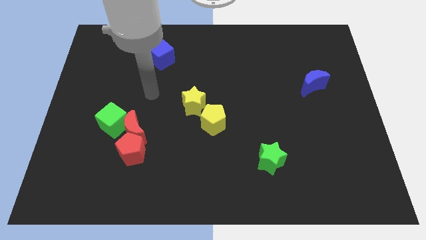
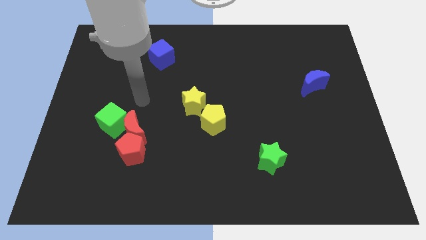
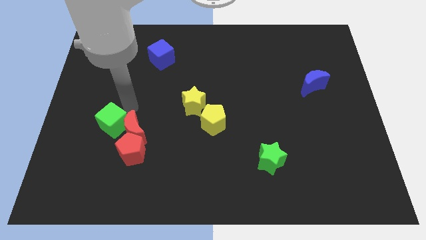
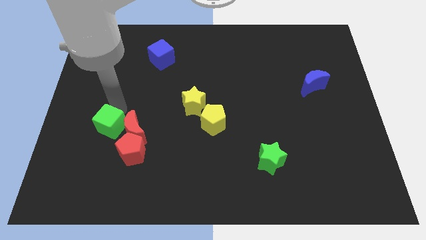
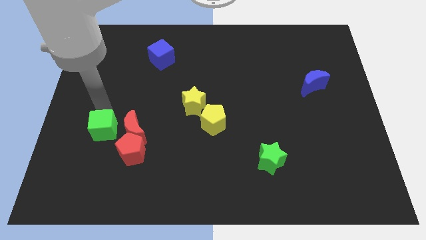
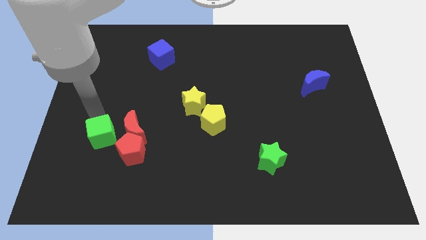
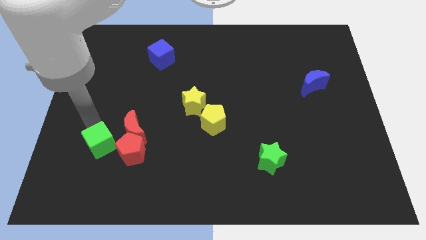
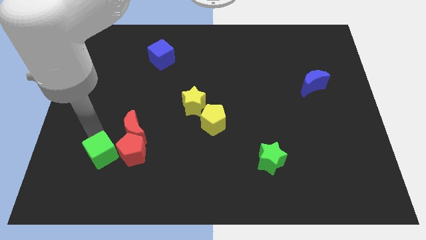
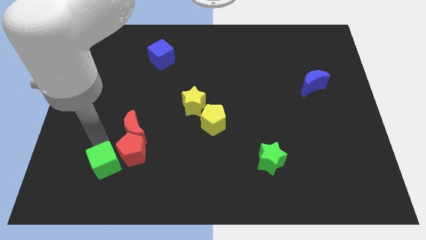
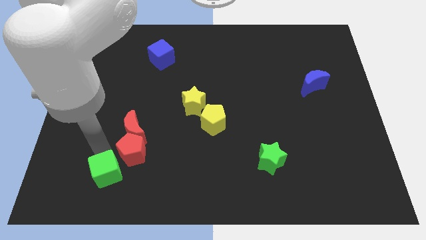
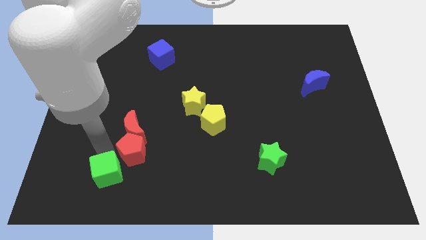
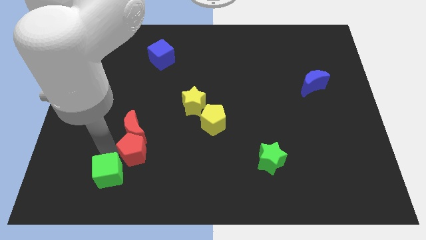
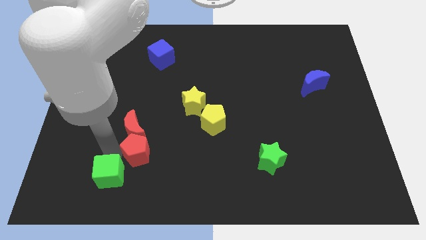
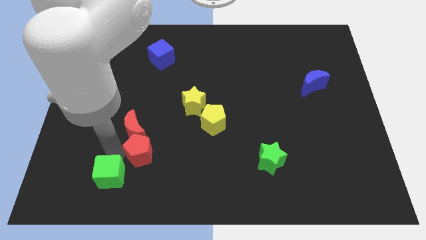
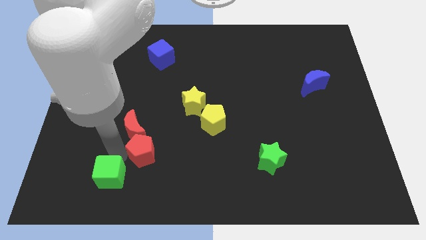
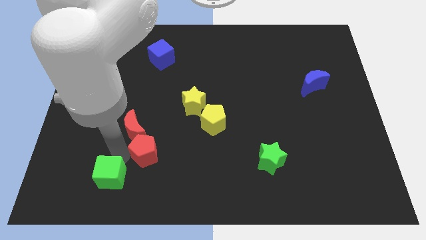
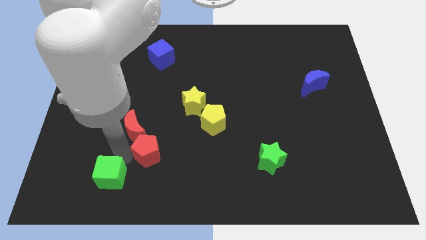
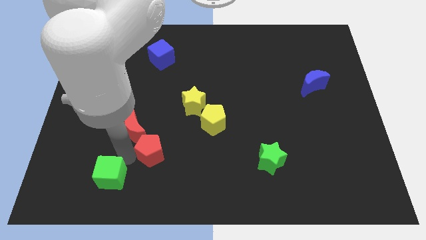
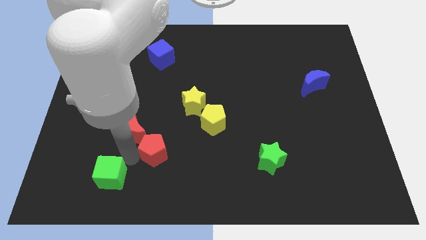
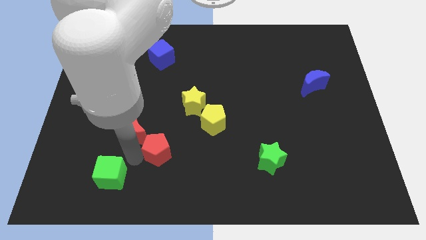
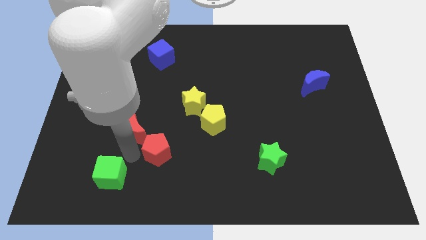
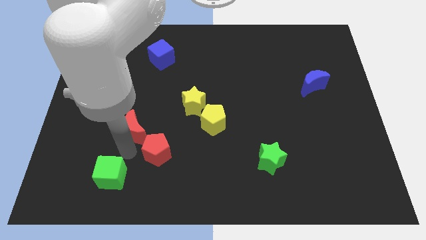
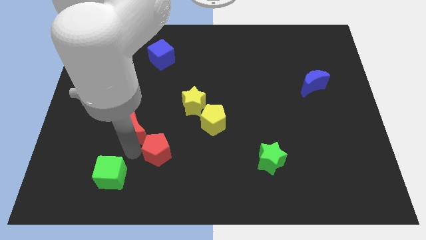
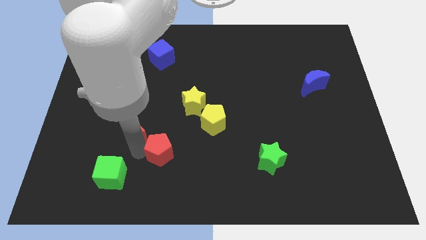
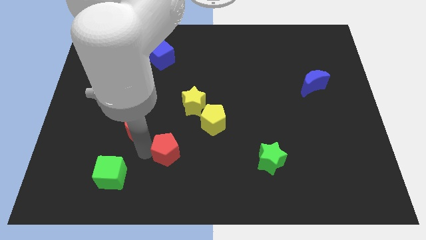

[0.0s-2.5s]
slightly slide the red pentagon right

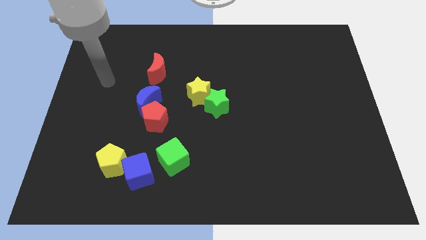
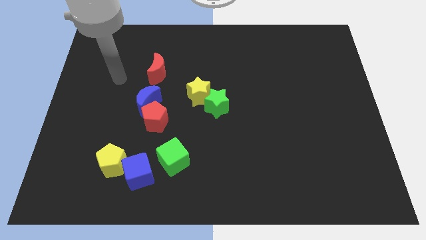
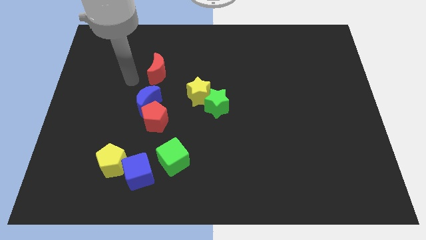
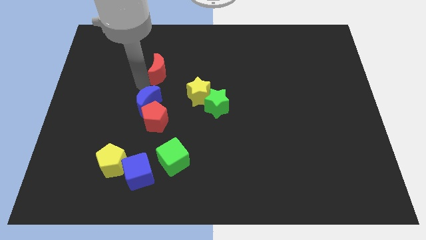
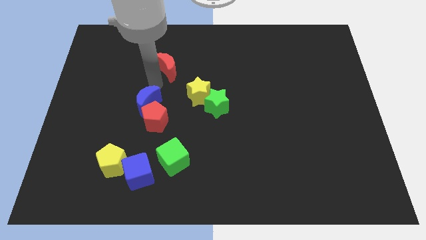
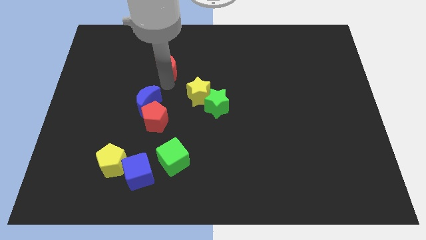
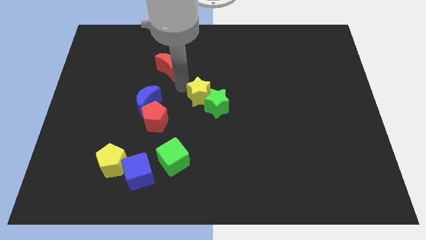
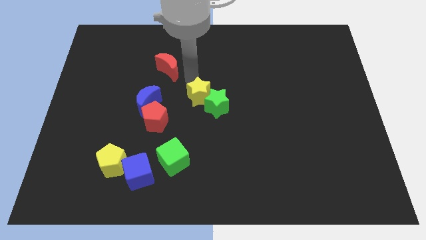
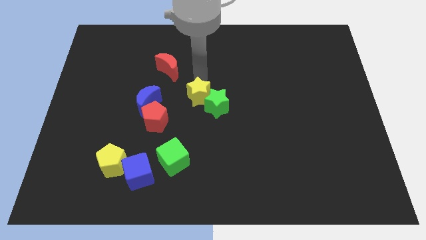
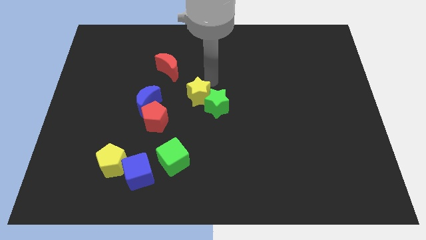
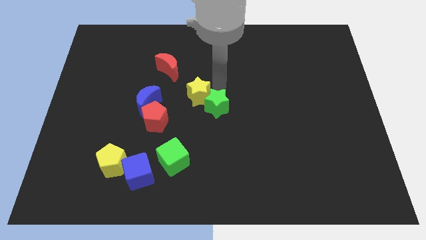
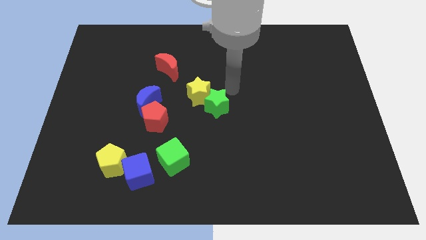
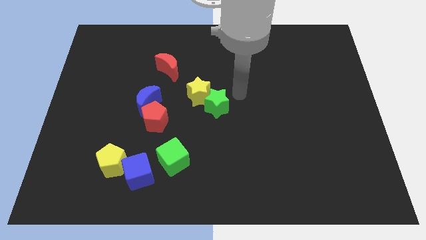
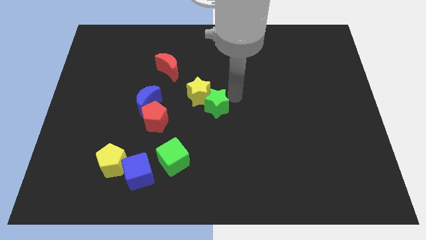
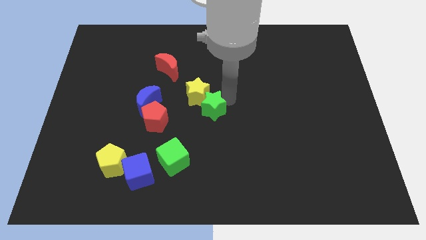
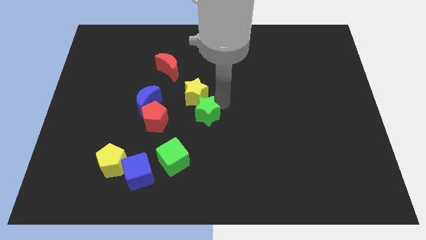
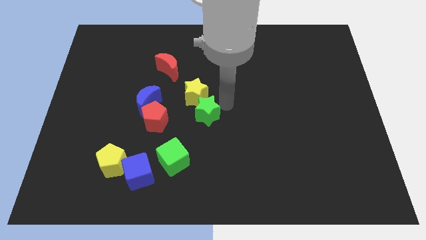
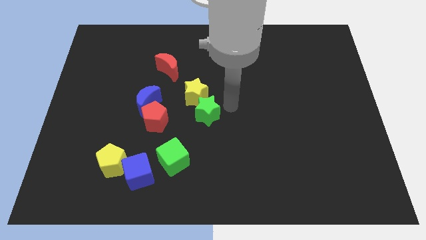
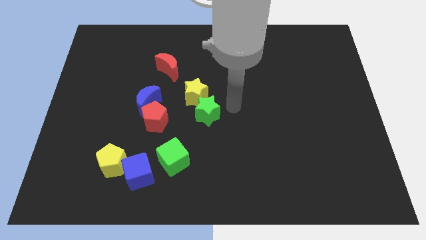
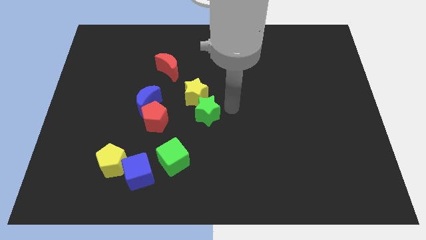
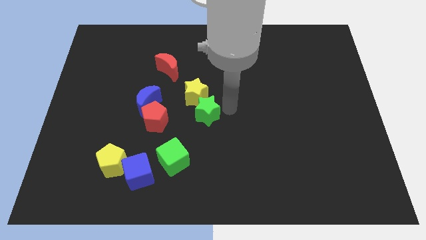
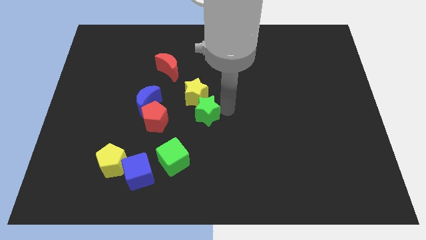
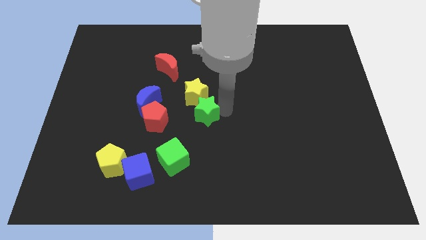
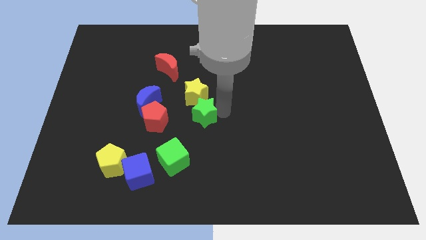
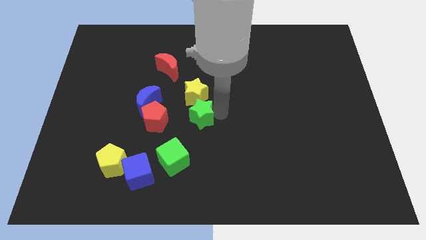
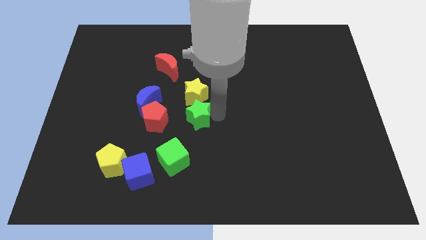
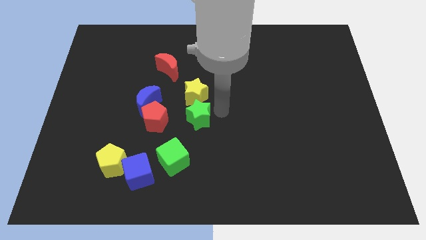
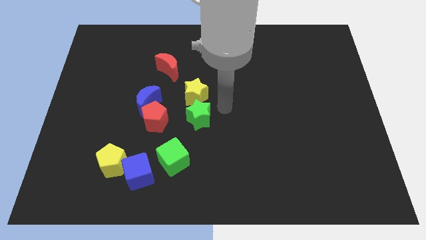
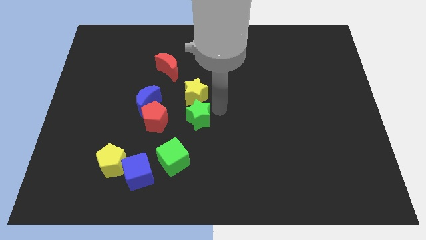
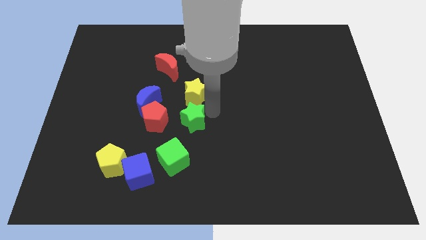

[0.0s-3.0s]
slightly move the green star downwards and to the left

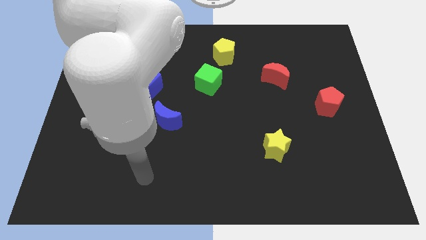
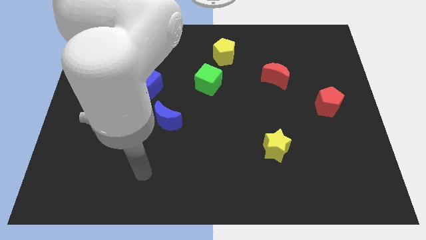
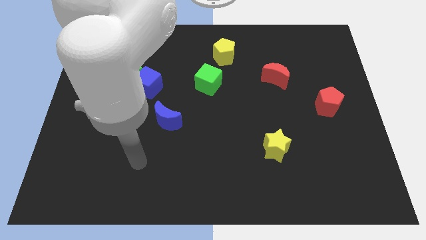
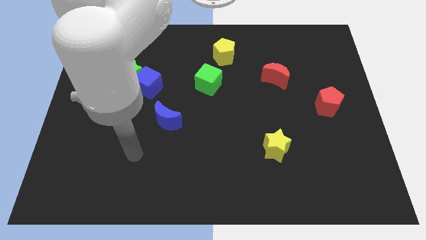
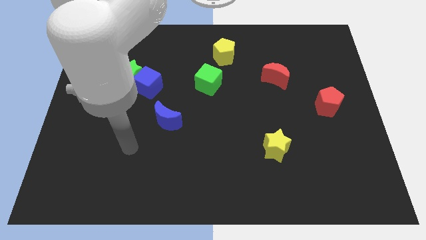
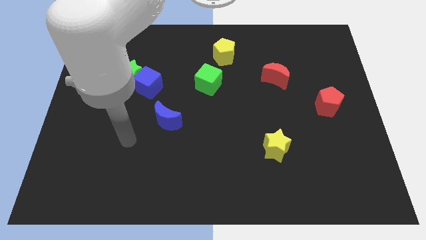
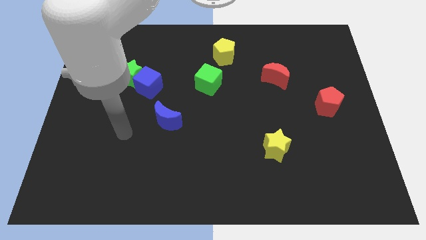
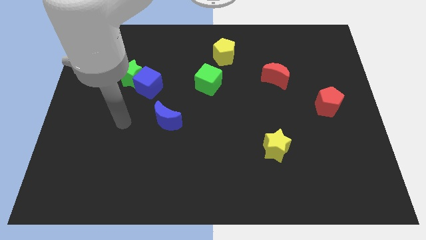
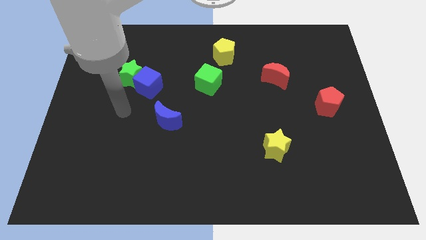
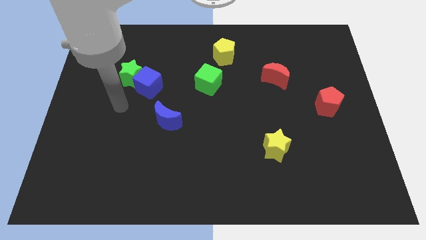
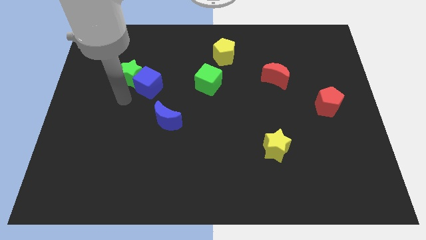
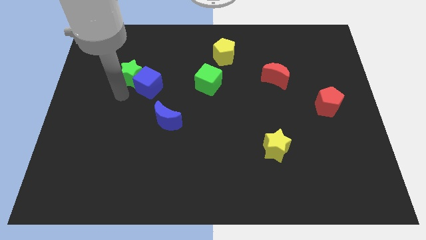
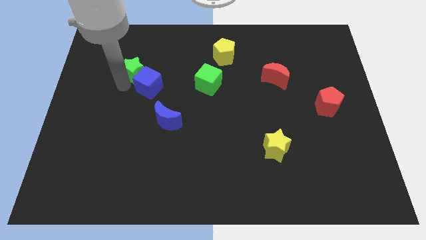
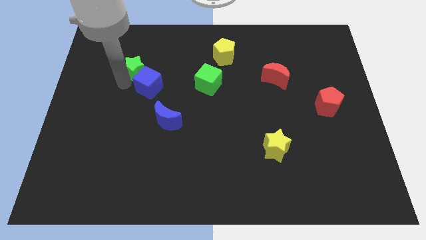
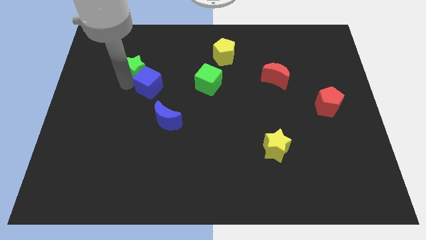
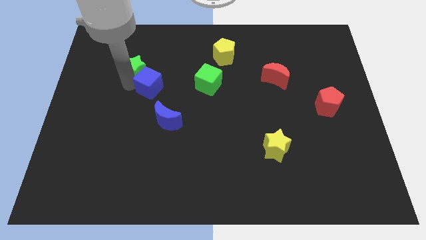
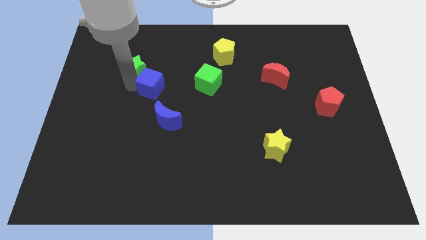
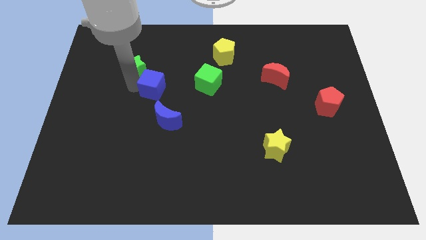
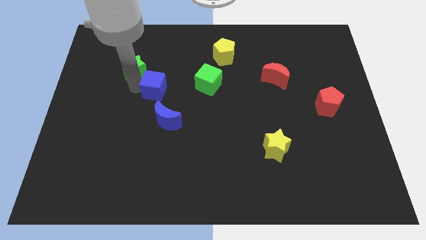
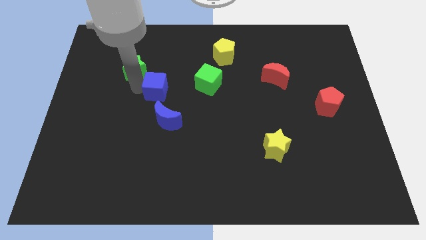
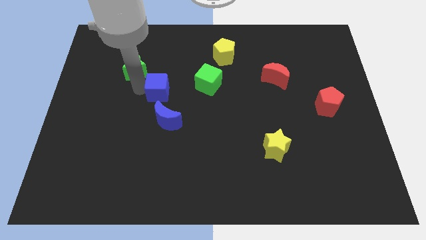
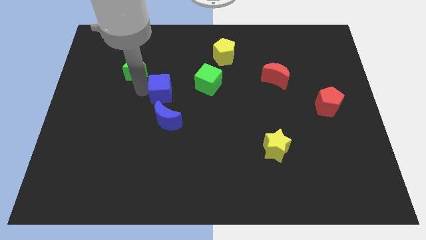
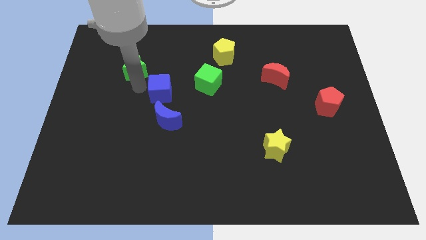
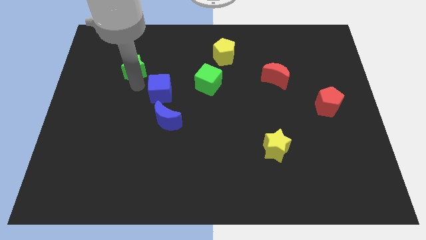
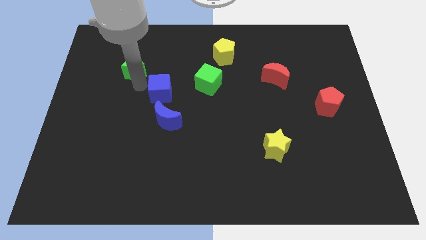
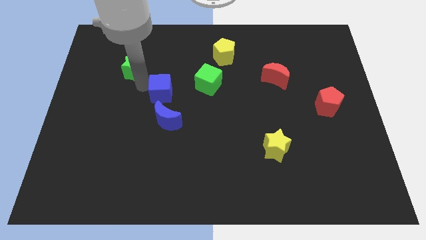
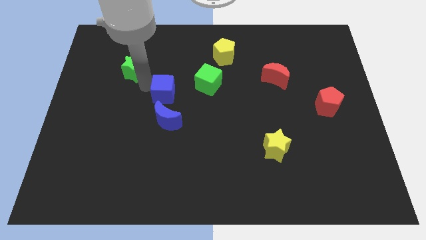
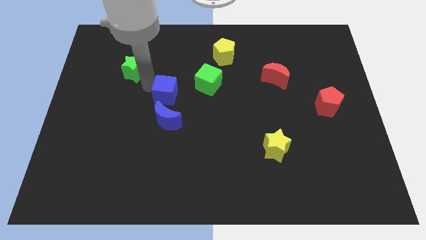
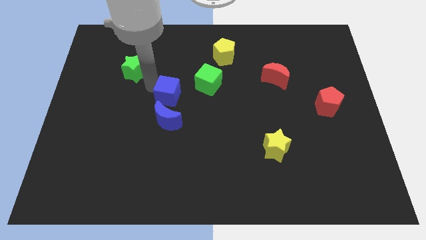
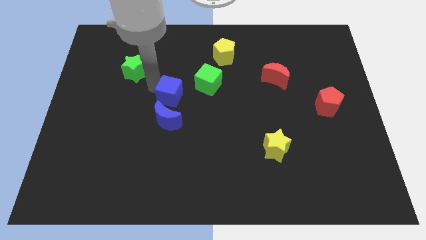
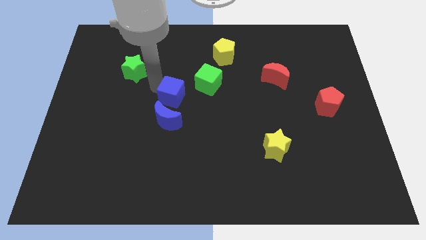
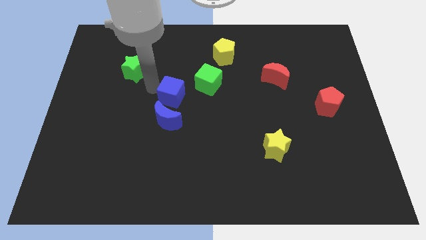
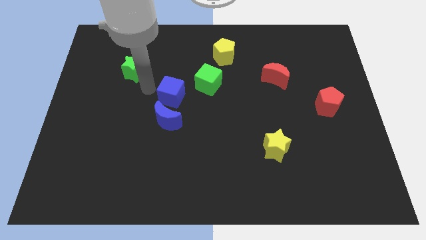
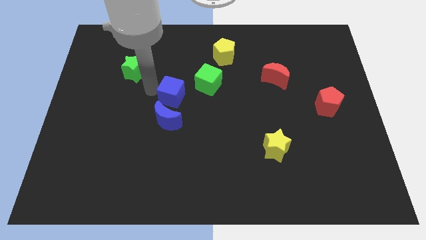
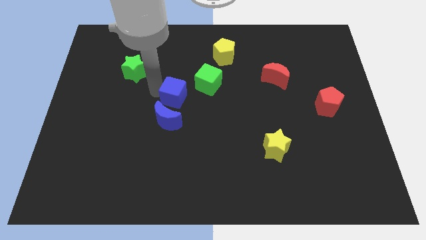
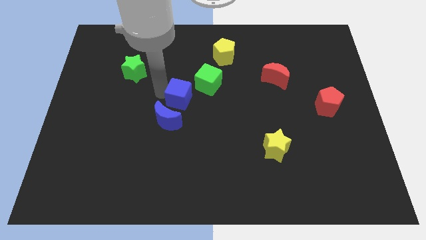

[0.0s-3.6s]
slightly push the blue cube to the right
